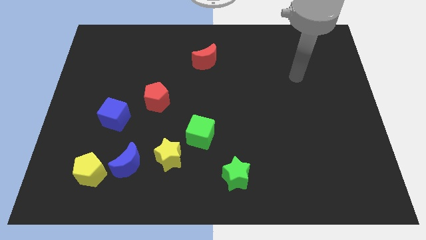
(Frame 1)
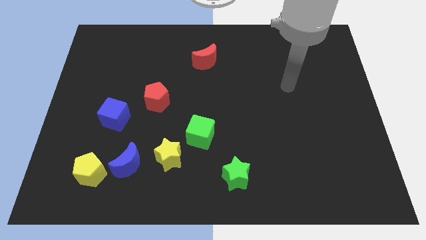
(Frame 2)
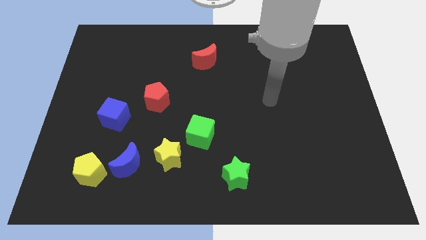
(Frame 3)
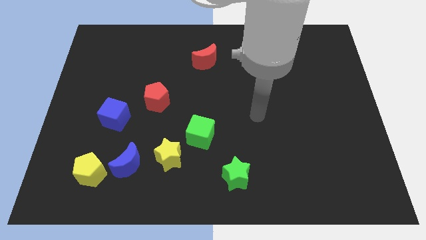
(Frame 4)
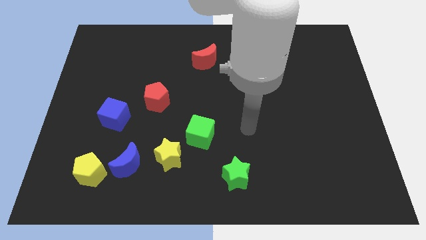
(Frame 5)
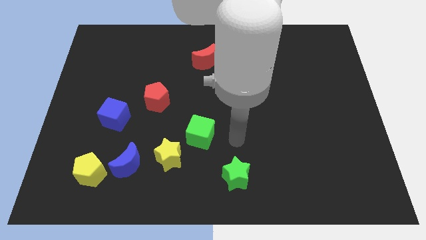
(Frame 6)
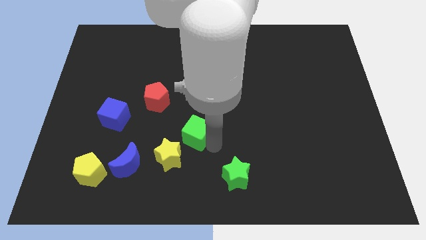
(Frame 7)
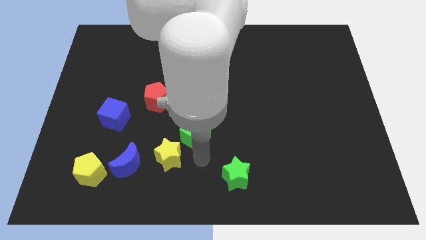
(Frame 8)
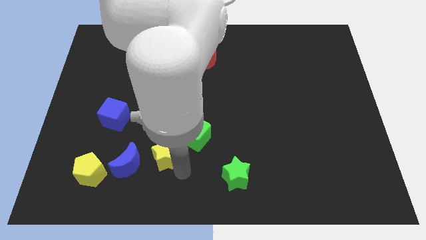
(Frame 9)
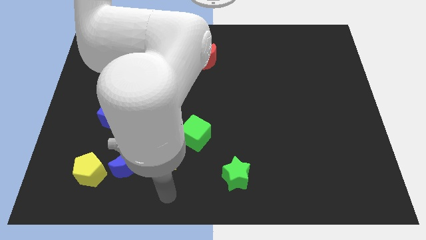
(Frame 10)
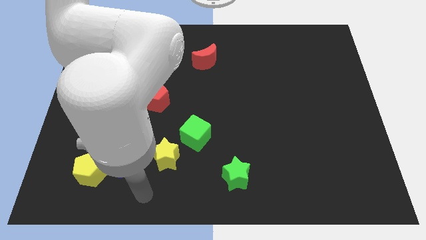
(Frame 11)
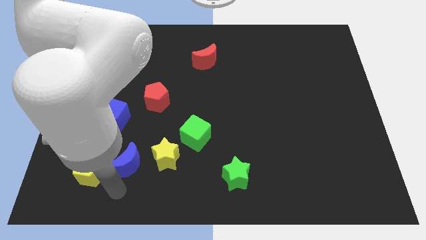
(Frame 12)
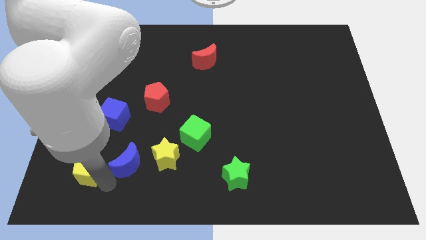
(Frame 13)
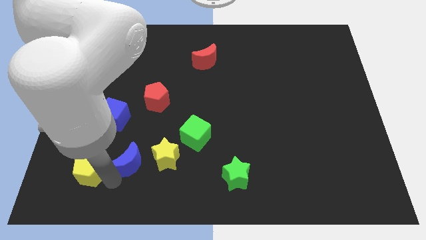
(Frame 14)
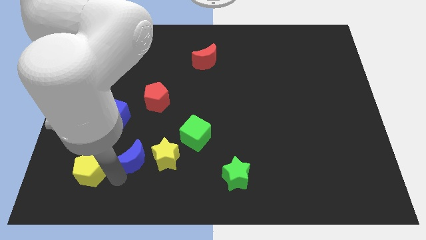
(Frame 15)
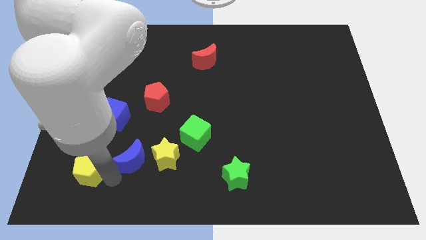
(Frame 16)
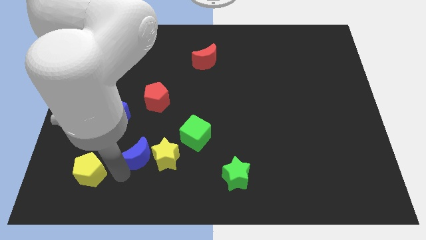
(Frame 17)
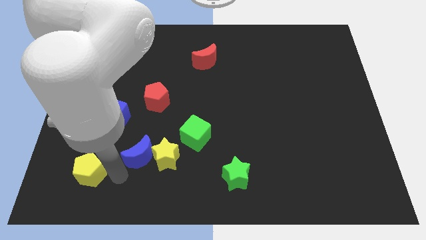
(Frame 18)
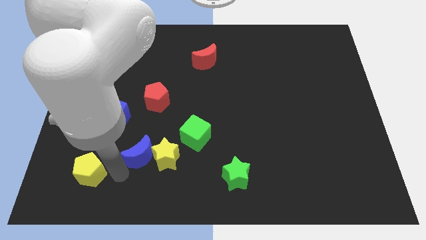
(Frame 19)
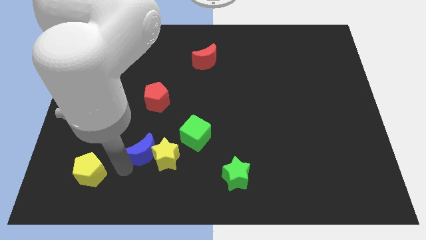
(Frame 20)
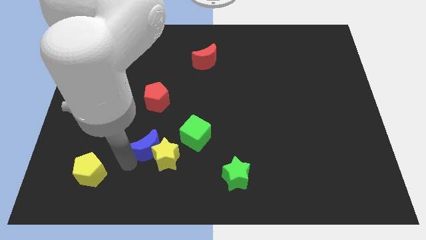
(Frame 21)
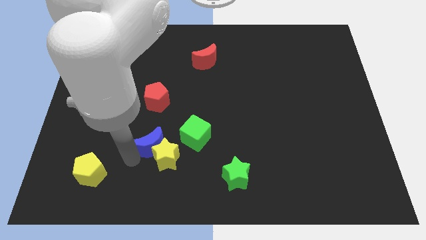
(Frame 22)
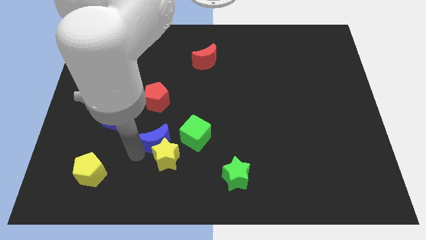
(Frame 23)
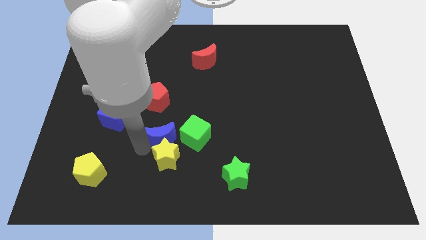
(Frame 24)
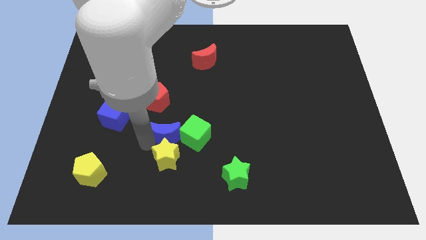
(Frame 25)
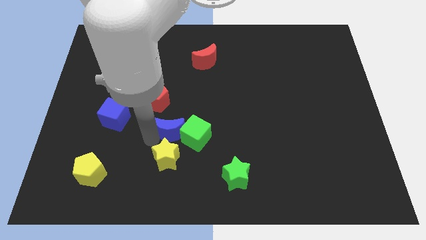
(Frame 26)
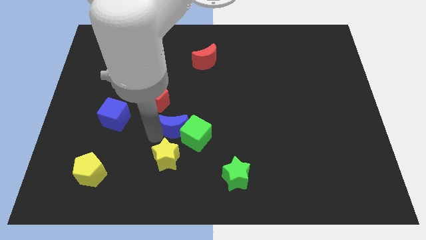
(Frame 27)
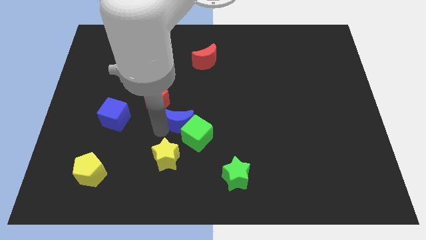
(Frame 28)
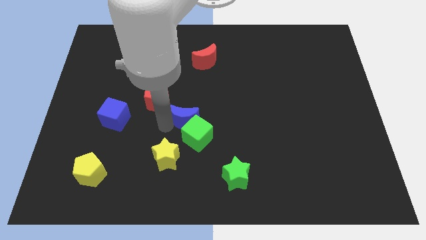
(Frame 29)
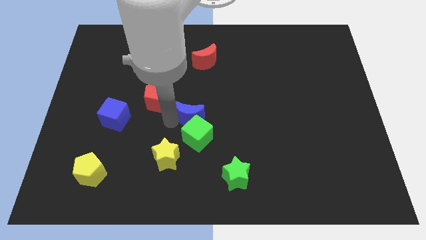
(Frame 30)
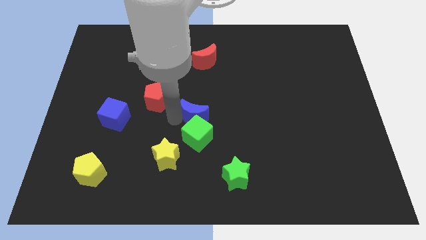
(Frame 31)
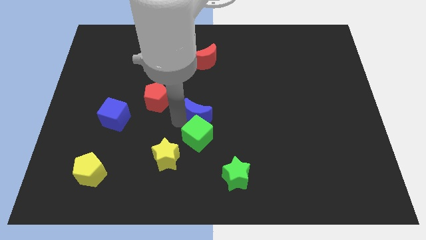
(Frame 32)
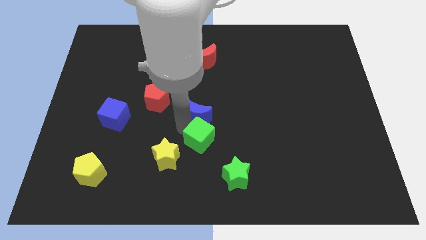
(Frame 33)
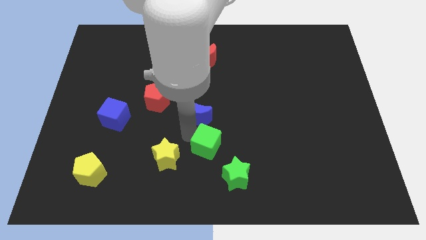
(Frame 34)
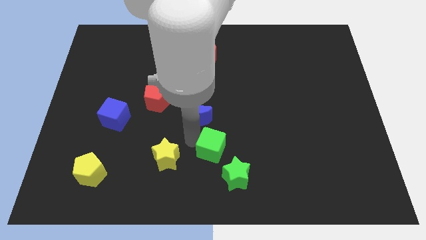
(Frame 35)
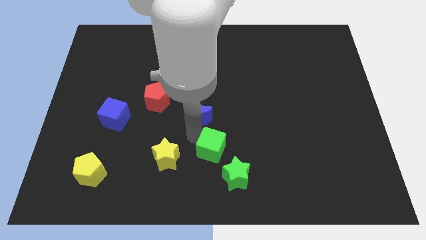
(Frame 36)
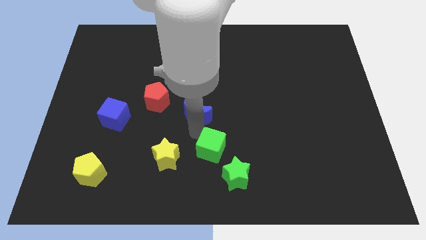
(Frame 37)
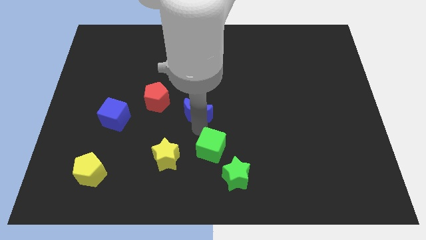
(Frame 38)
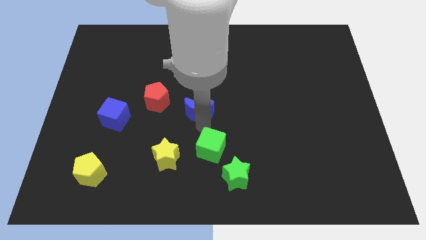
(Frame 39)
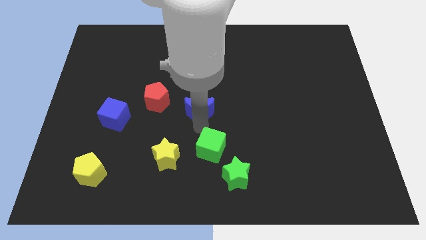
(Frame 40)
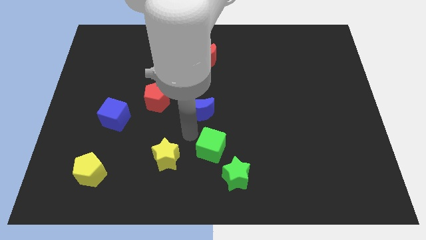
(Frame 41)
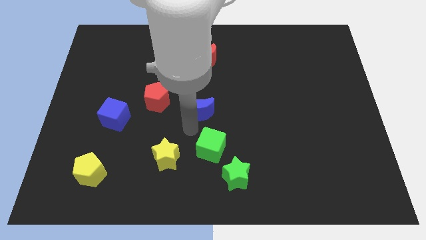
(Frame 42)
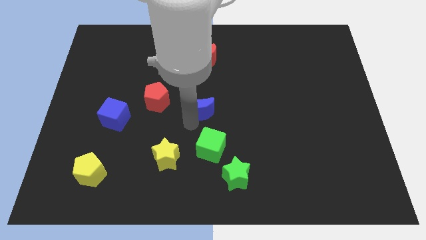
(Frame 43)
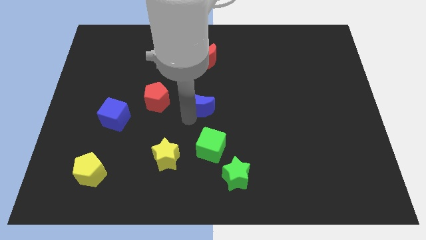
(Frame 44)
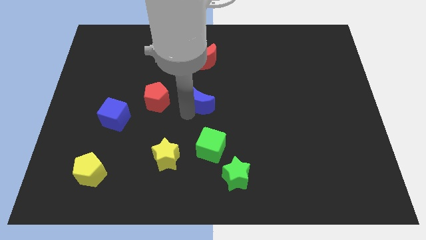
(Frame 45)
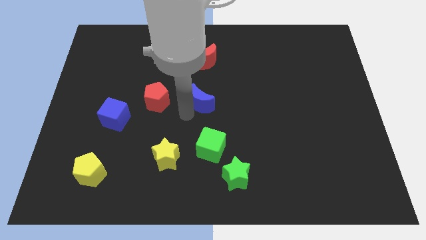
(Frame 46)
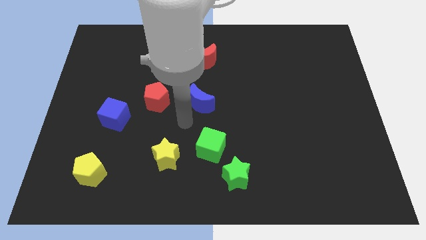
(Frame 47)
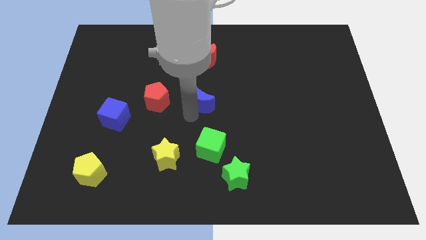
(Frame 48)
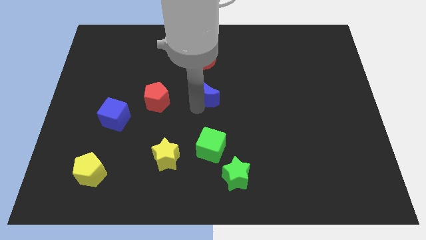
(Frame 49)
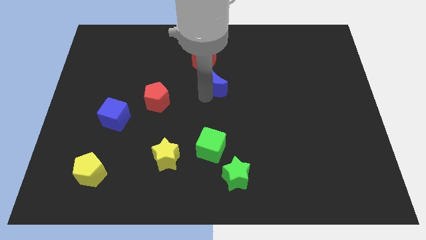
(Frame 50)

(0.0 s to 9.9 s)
move the blue moon to the bottom right of the red moon

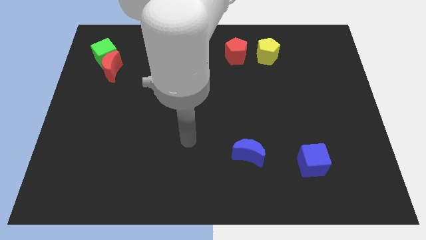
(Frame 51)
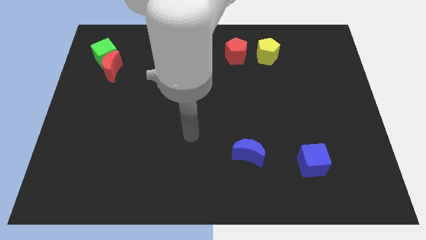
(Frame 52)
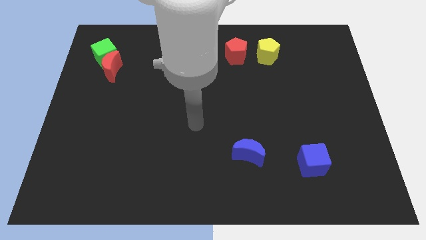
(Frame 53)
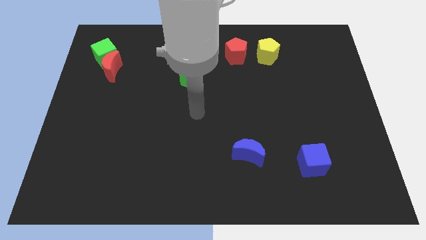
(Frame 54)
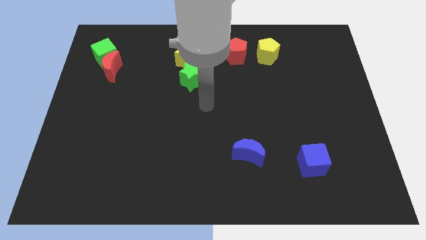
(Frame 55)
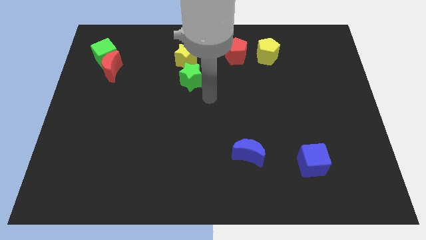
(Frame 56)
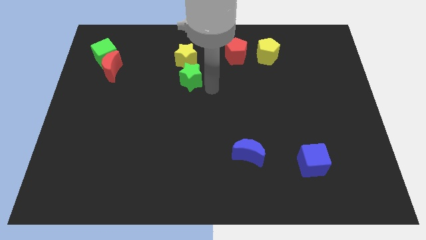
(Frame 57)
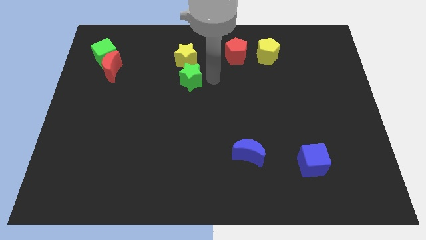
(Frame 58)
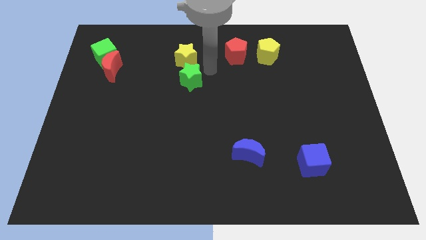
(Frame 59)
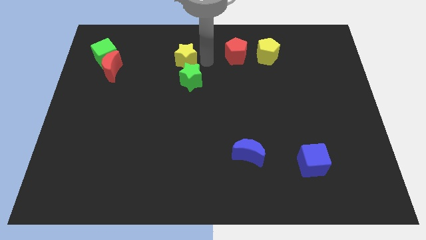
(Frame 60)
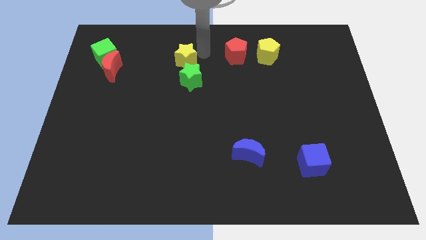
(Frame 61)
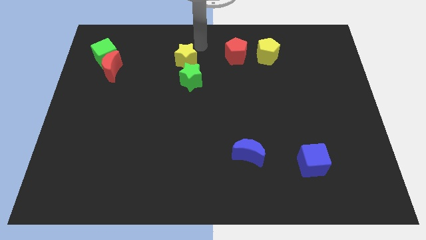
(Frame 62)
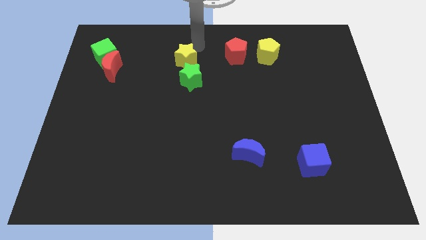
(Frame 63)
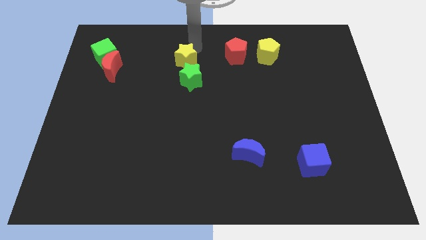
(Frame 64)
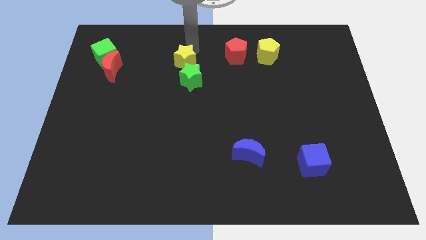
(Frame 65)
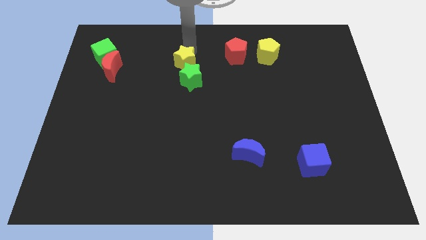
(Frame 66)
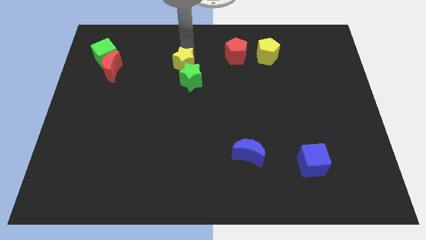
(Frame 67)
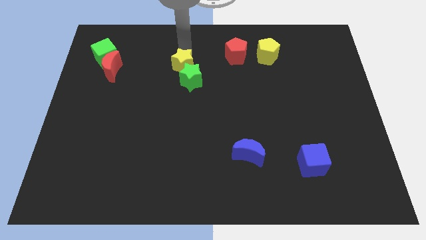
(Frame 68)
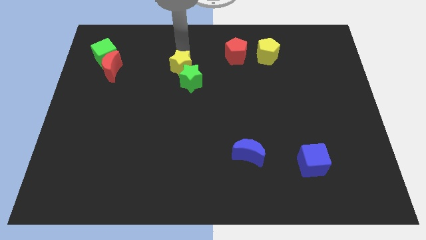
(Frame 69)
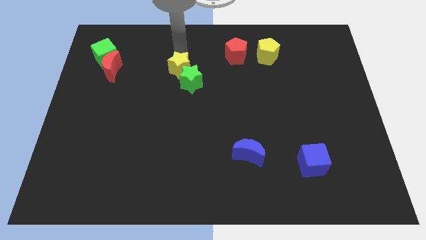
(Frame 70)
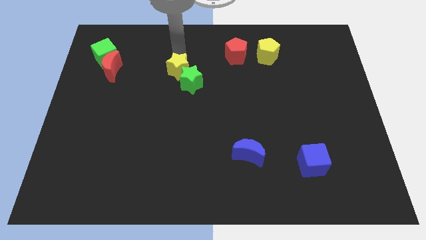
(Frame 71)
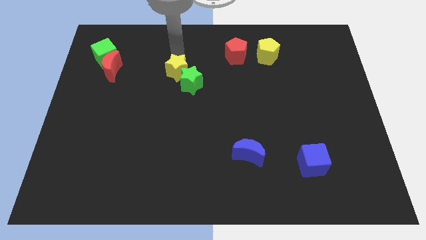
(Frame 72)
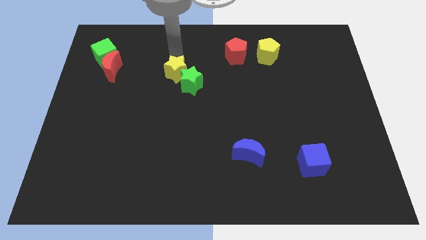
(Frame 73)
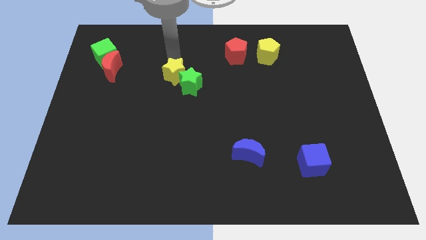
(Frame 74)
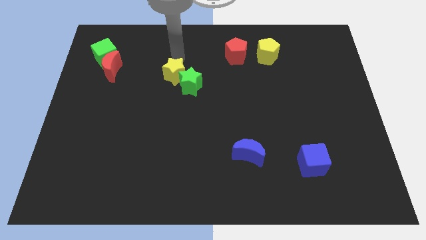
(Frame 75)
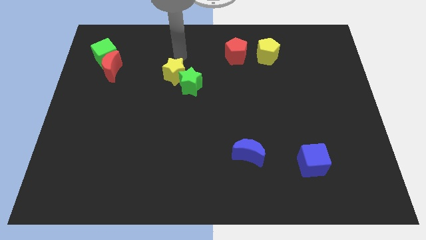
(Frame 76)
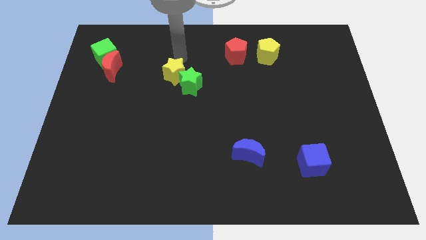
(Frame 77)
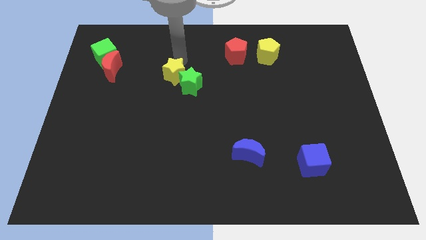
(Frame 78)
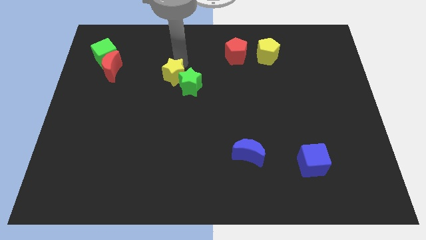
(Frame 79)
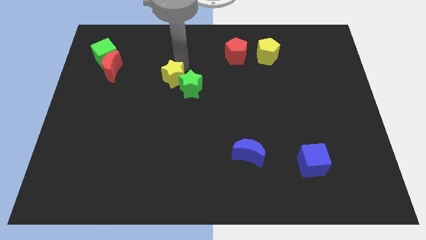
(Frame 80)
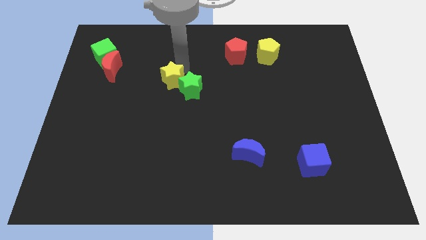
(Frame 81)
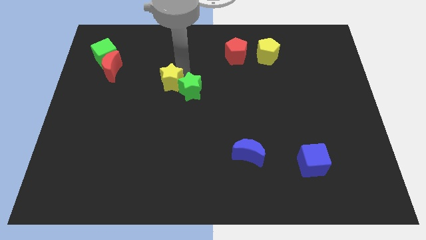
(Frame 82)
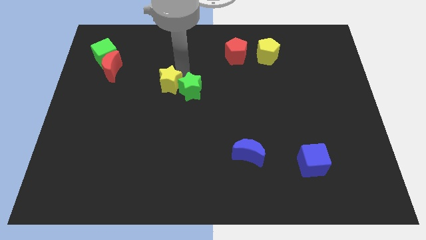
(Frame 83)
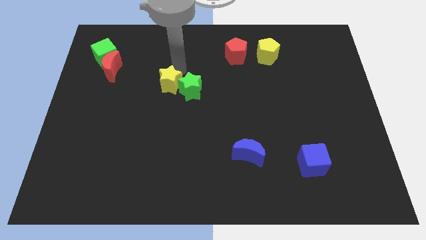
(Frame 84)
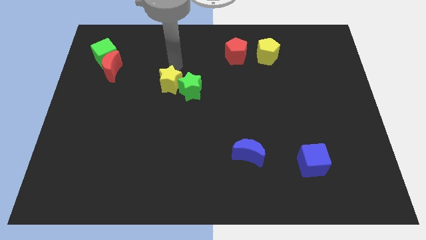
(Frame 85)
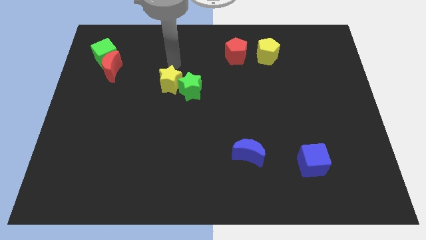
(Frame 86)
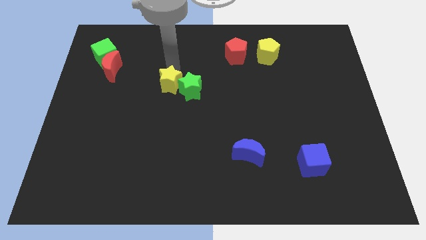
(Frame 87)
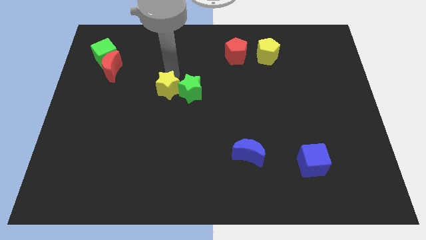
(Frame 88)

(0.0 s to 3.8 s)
put the yellow star to the bottom left of the green star
